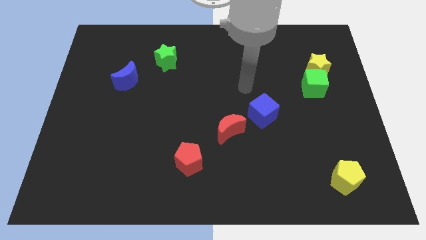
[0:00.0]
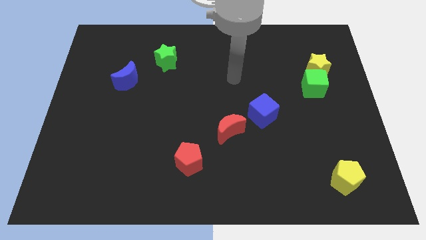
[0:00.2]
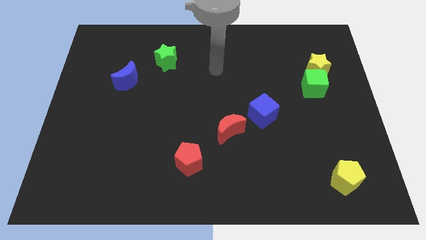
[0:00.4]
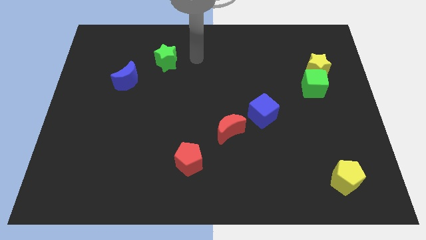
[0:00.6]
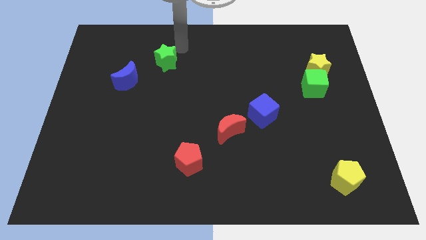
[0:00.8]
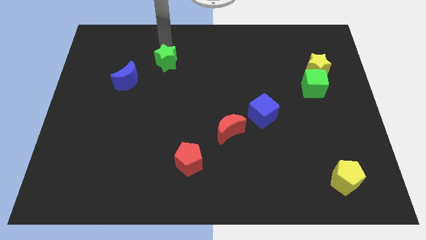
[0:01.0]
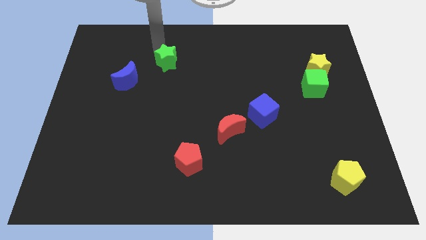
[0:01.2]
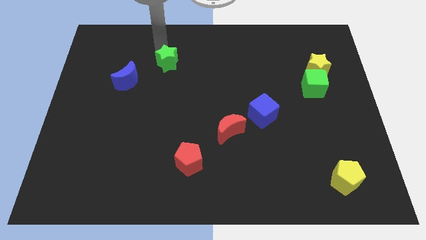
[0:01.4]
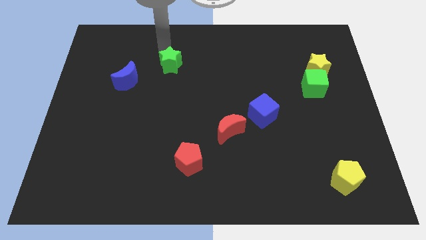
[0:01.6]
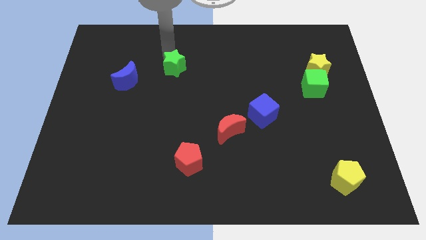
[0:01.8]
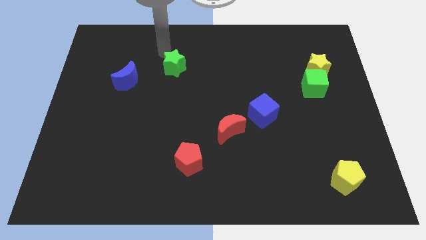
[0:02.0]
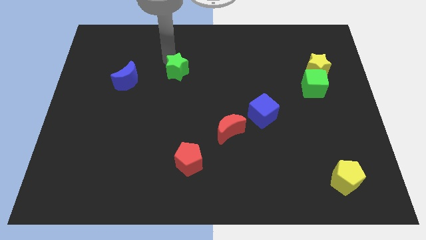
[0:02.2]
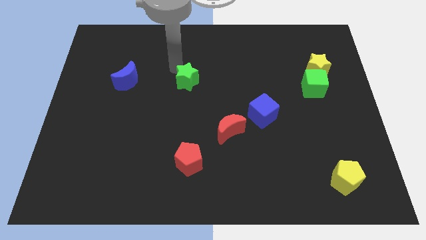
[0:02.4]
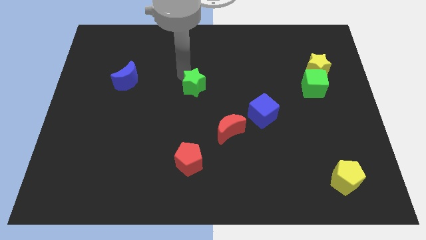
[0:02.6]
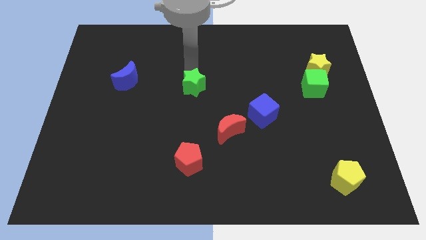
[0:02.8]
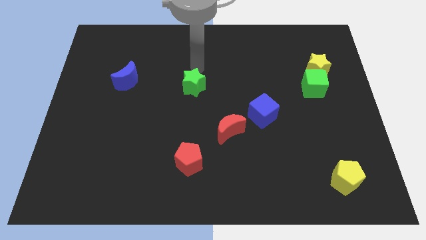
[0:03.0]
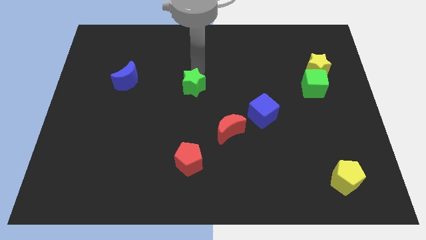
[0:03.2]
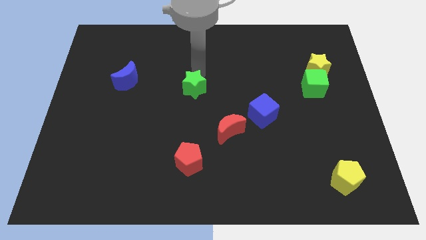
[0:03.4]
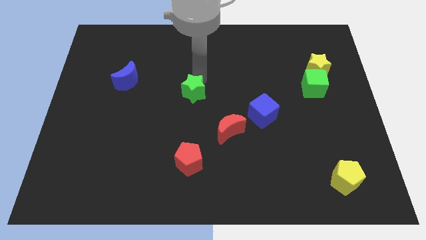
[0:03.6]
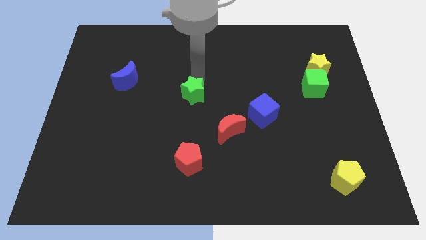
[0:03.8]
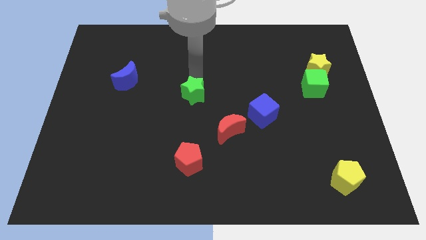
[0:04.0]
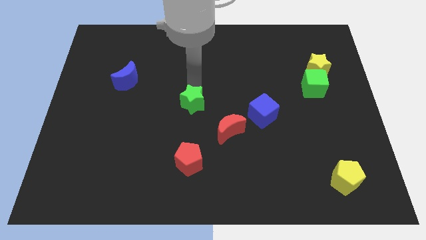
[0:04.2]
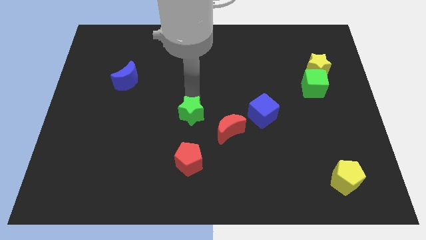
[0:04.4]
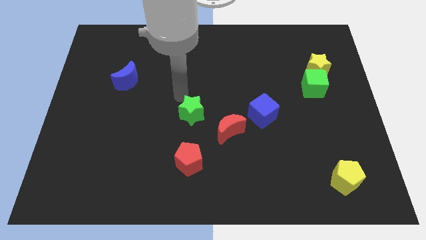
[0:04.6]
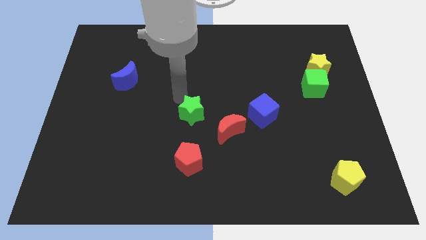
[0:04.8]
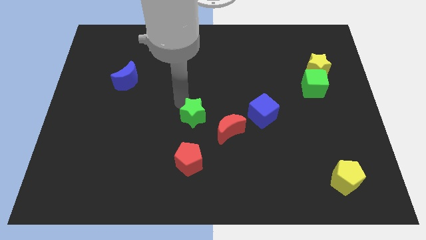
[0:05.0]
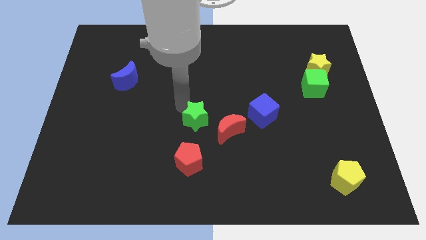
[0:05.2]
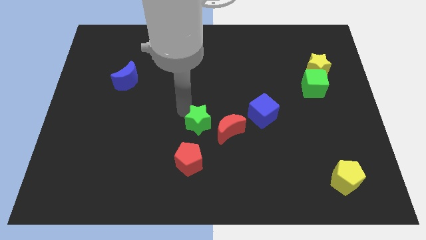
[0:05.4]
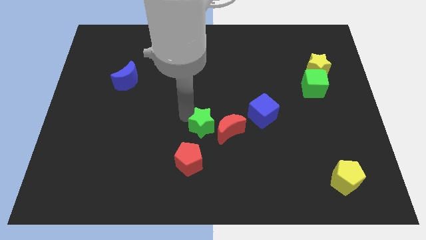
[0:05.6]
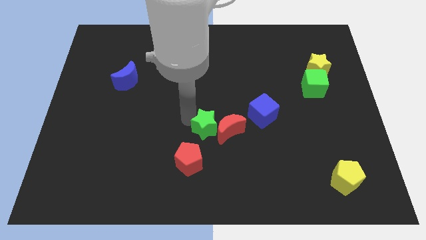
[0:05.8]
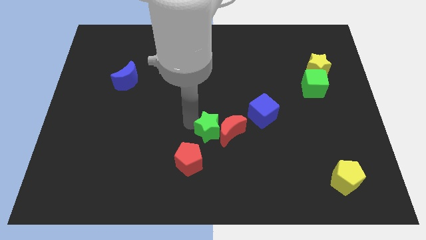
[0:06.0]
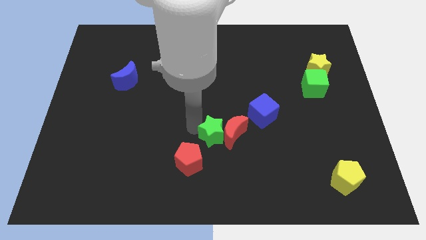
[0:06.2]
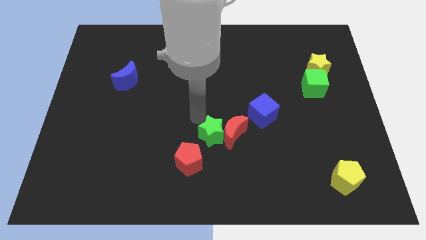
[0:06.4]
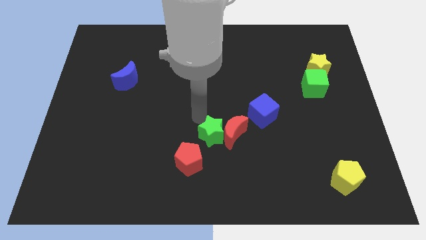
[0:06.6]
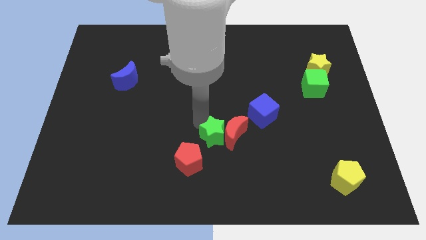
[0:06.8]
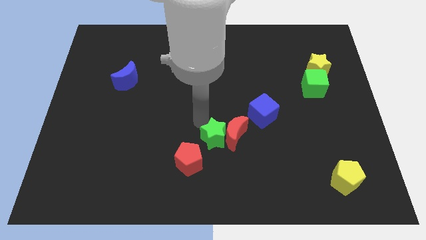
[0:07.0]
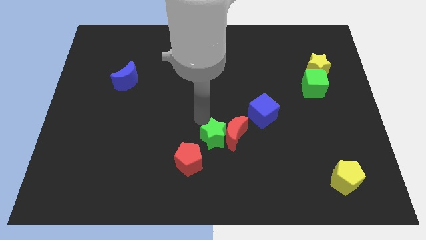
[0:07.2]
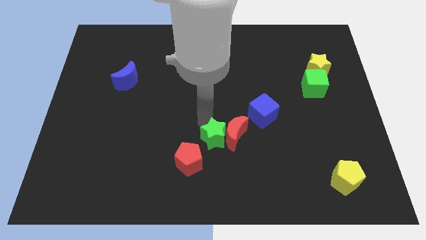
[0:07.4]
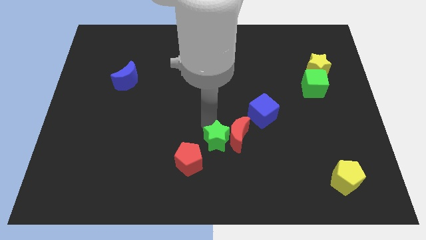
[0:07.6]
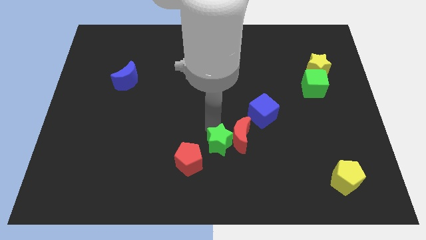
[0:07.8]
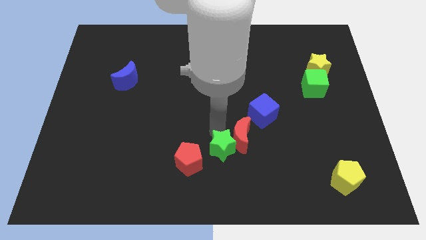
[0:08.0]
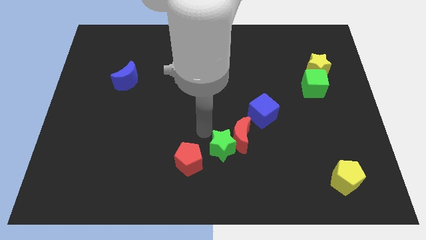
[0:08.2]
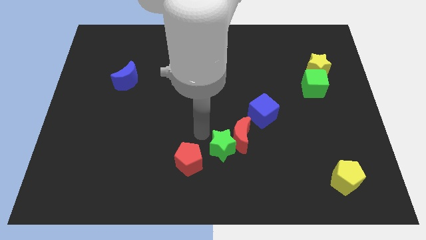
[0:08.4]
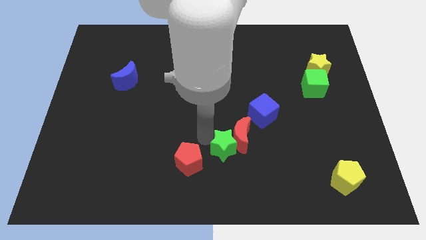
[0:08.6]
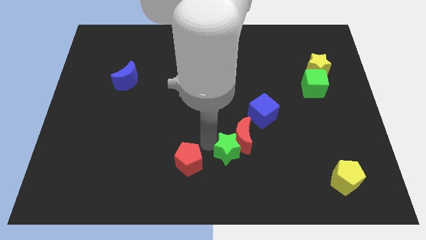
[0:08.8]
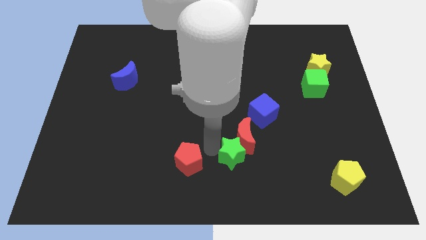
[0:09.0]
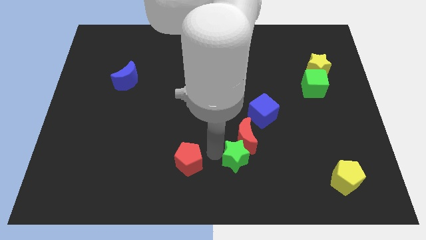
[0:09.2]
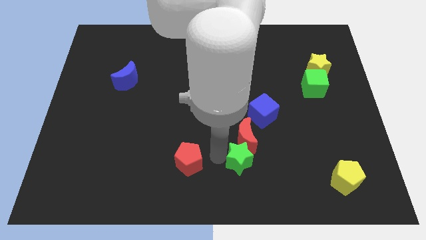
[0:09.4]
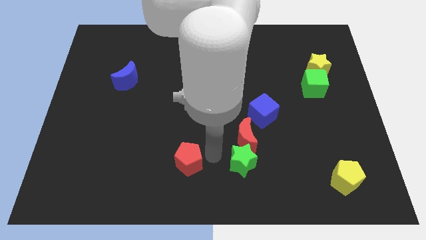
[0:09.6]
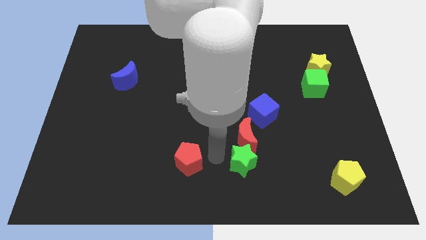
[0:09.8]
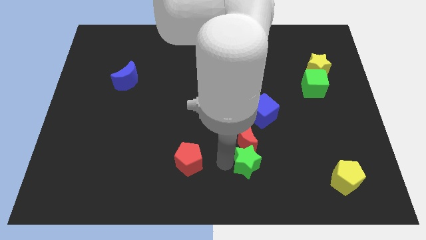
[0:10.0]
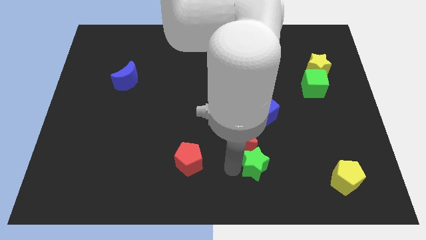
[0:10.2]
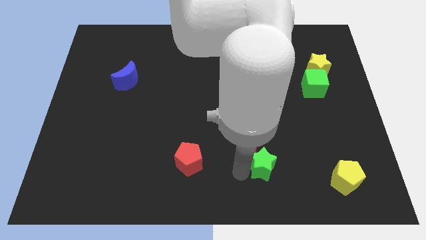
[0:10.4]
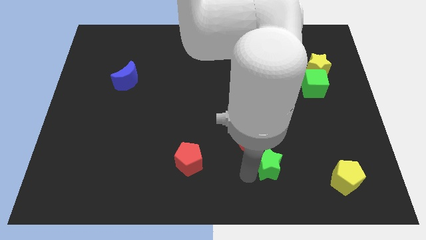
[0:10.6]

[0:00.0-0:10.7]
slide the green star left of the yellow pentagon
